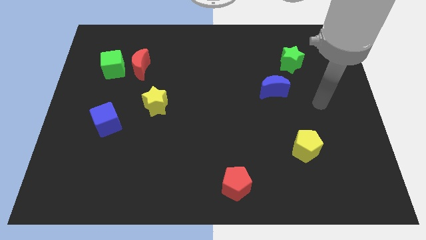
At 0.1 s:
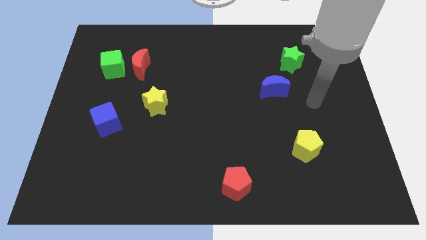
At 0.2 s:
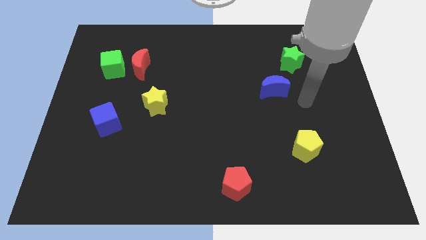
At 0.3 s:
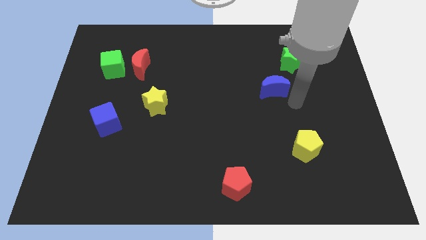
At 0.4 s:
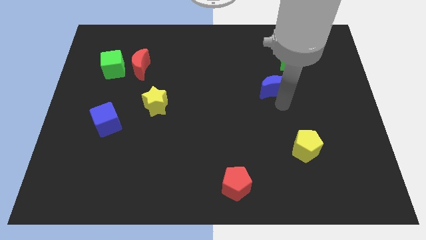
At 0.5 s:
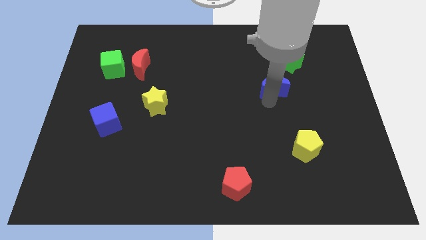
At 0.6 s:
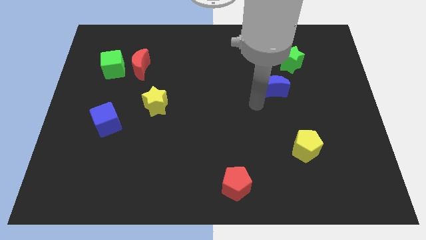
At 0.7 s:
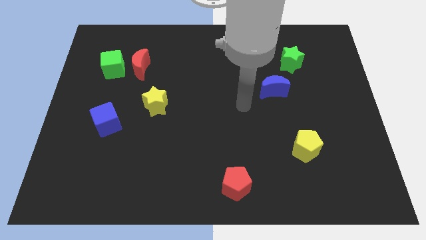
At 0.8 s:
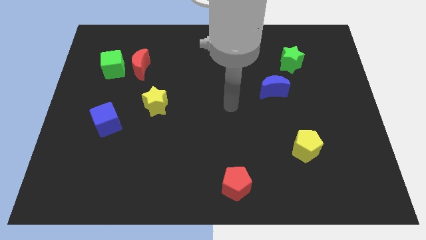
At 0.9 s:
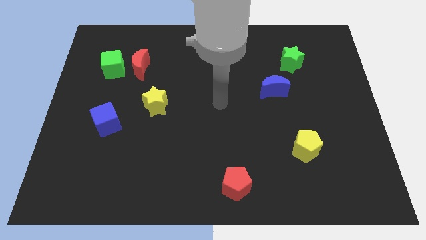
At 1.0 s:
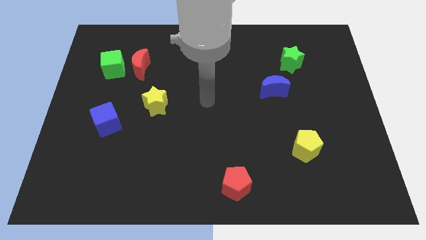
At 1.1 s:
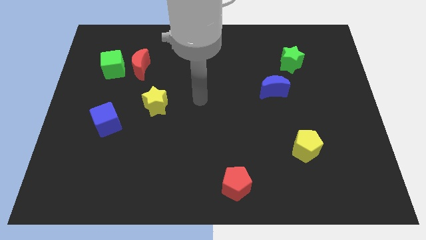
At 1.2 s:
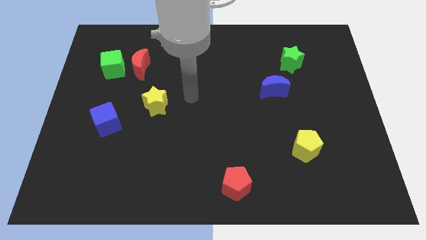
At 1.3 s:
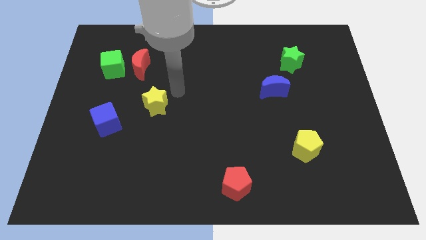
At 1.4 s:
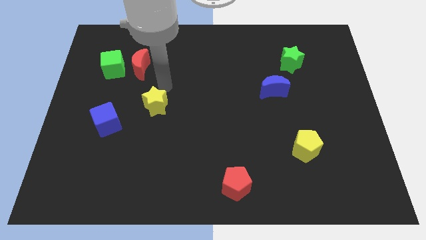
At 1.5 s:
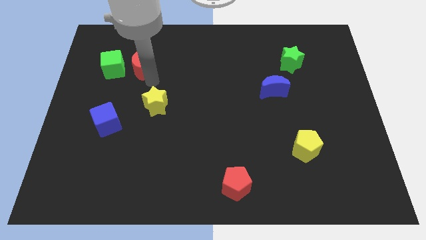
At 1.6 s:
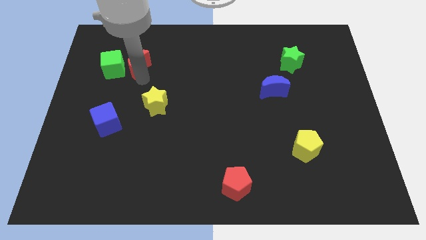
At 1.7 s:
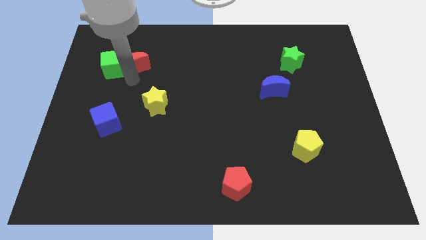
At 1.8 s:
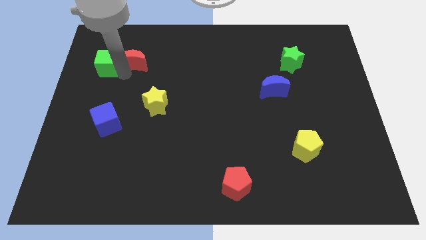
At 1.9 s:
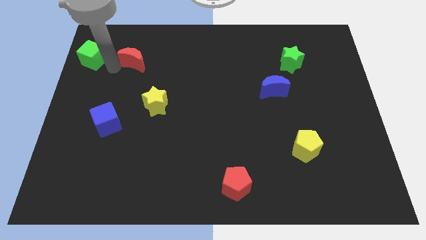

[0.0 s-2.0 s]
move the red moon away from the green cube

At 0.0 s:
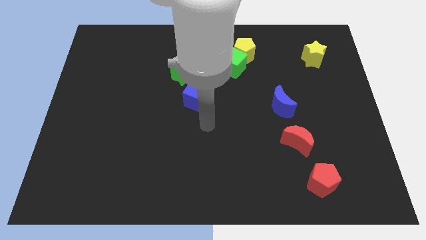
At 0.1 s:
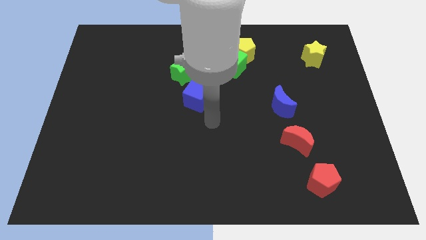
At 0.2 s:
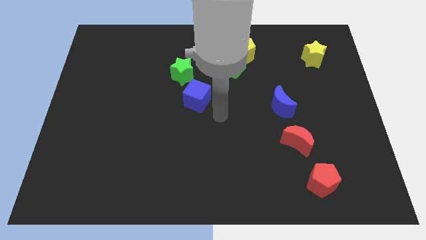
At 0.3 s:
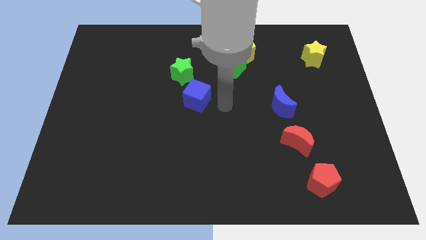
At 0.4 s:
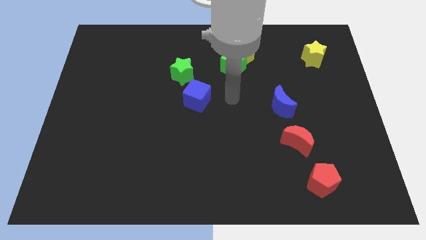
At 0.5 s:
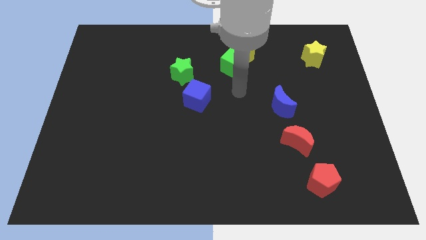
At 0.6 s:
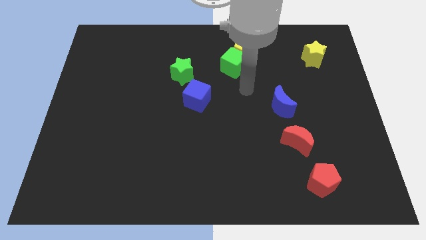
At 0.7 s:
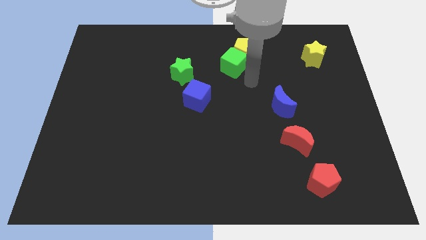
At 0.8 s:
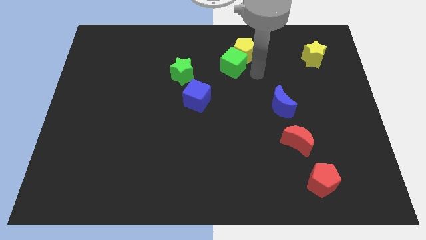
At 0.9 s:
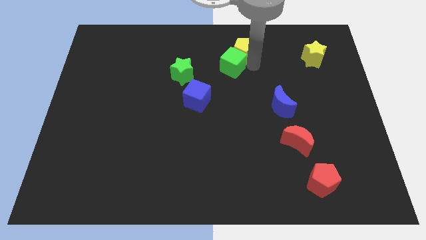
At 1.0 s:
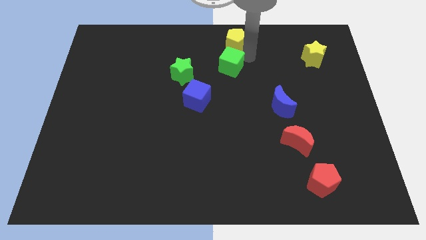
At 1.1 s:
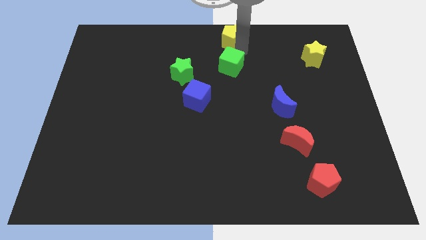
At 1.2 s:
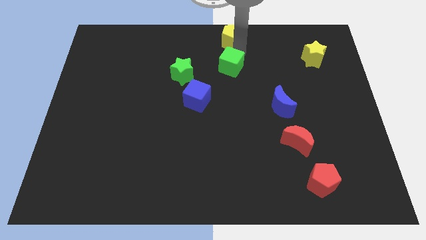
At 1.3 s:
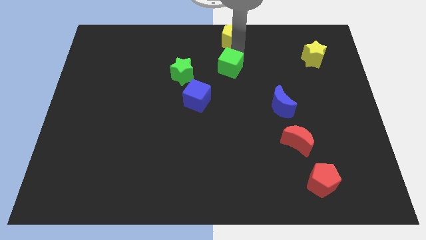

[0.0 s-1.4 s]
pull the green cube apart from the yellow pentagon

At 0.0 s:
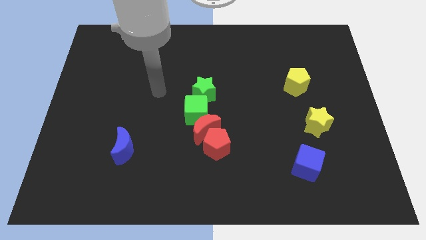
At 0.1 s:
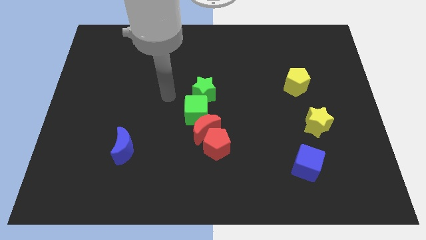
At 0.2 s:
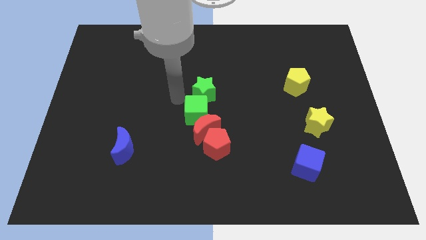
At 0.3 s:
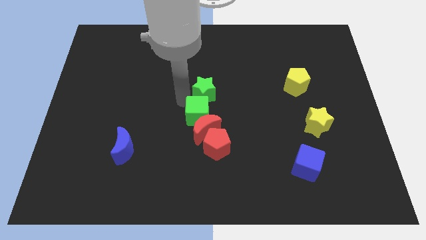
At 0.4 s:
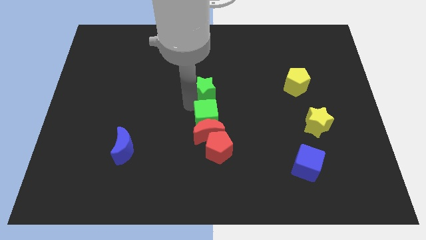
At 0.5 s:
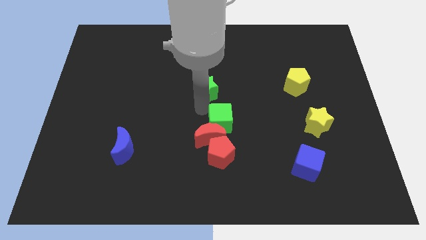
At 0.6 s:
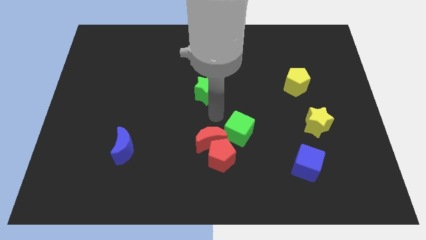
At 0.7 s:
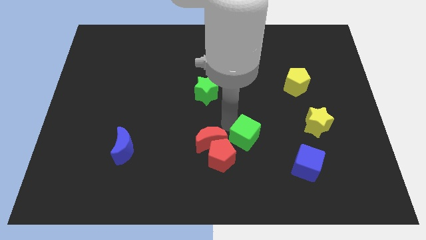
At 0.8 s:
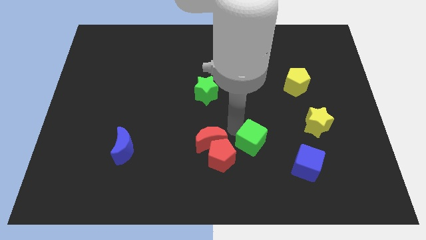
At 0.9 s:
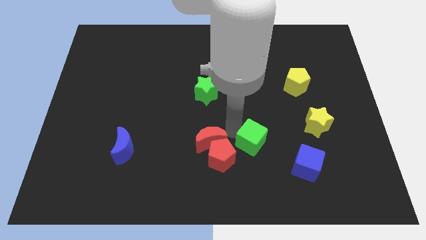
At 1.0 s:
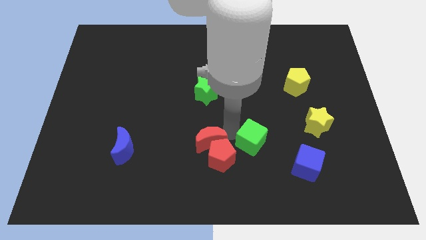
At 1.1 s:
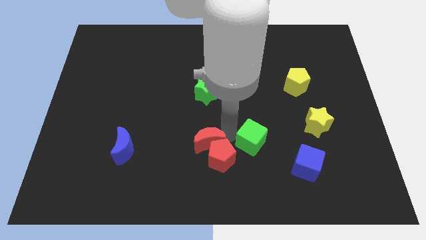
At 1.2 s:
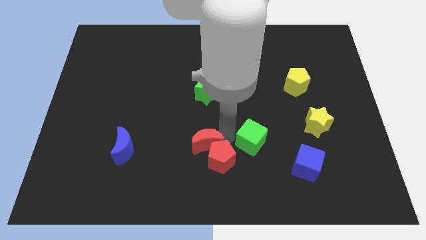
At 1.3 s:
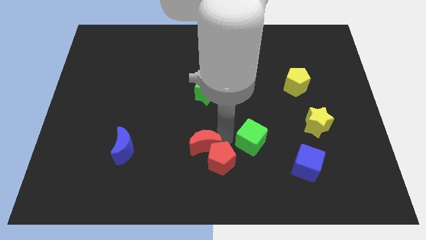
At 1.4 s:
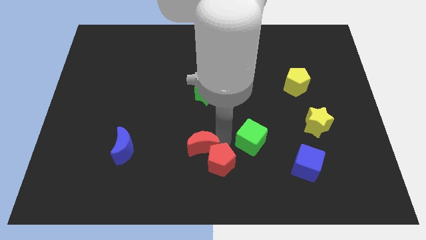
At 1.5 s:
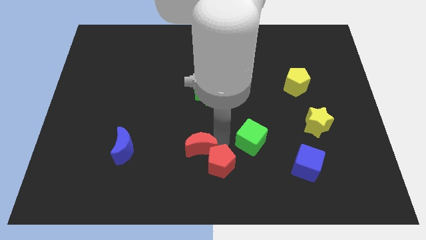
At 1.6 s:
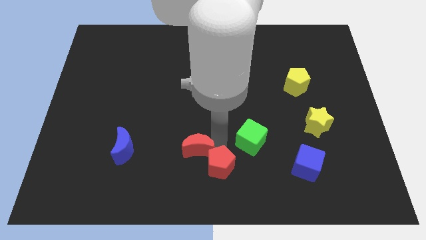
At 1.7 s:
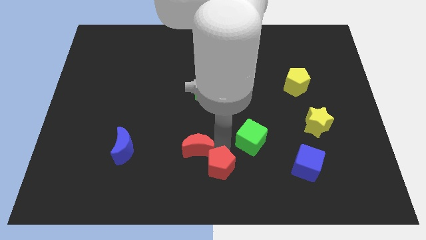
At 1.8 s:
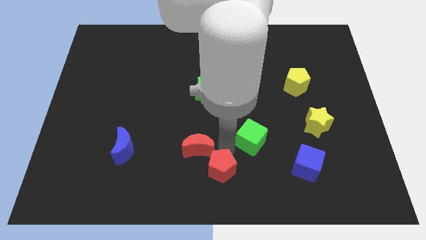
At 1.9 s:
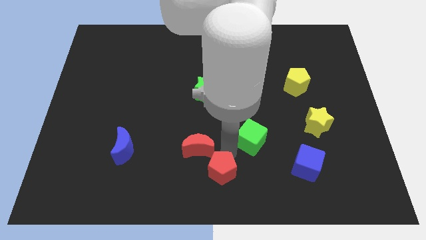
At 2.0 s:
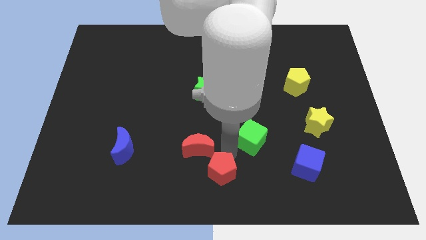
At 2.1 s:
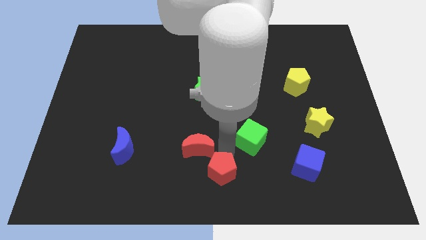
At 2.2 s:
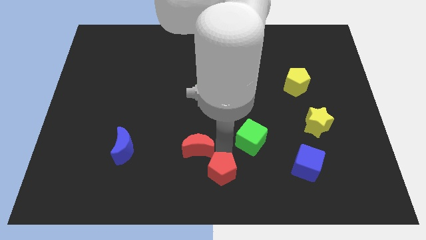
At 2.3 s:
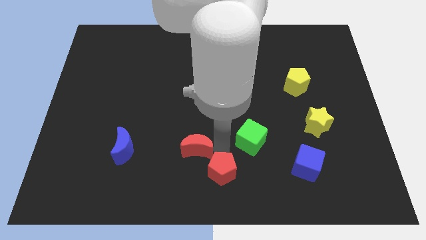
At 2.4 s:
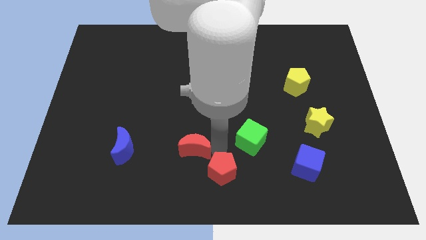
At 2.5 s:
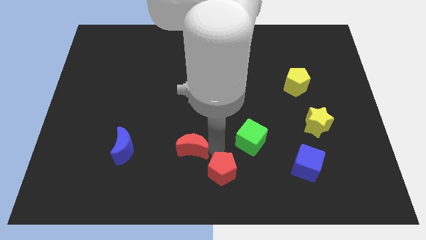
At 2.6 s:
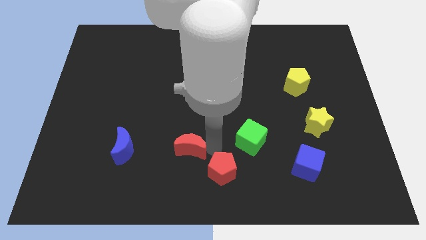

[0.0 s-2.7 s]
move the red moon away from the red pentagon and green cube

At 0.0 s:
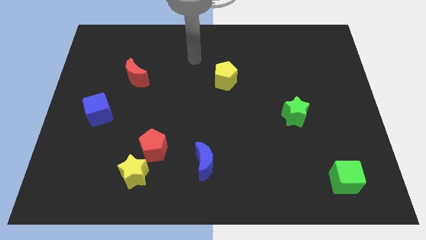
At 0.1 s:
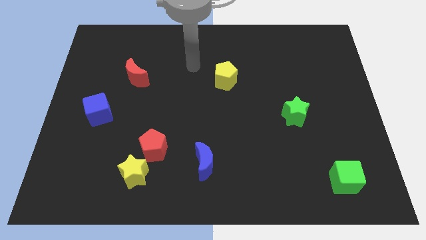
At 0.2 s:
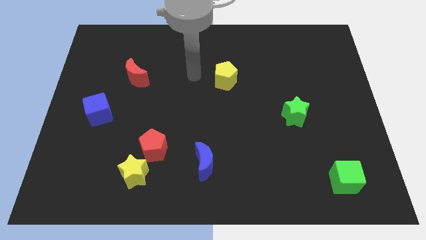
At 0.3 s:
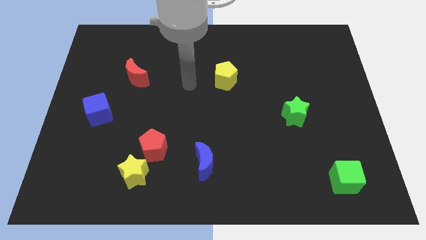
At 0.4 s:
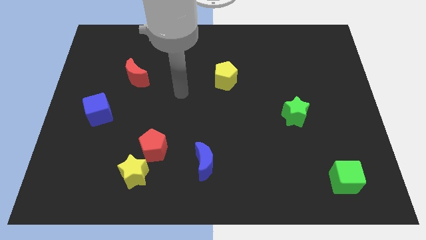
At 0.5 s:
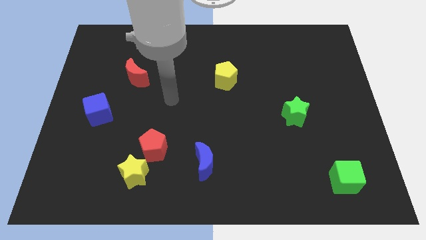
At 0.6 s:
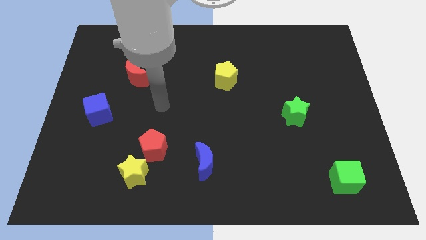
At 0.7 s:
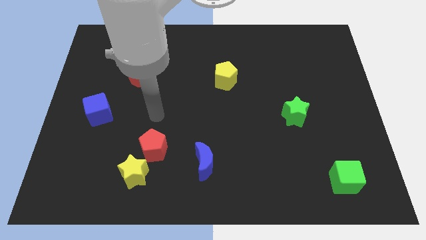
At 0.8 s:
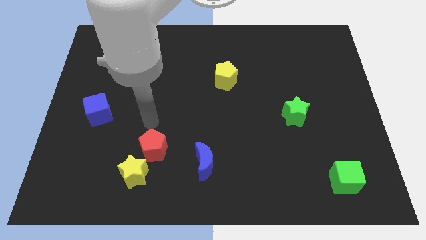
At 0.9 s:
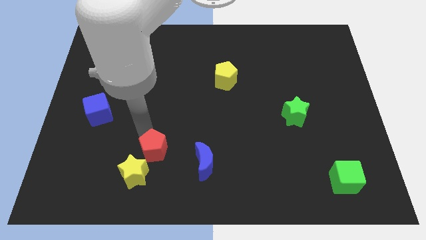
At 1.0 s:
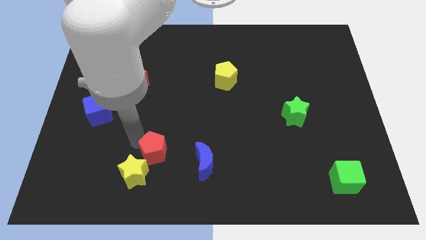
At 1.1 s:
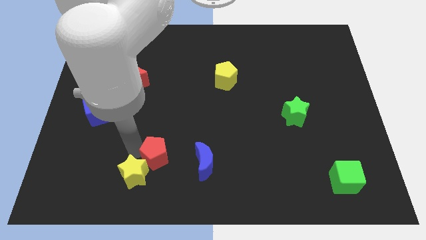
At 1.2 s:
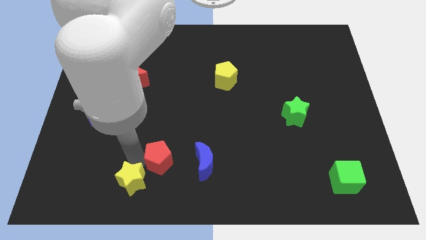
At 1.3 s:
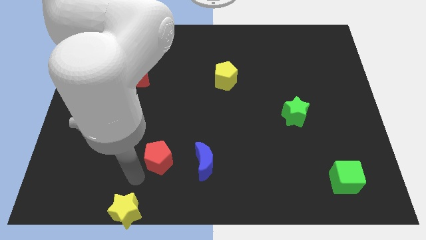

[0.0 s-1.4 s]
separate the red pentagon from the yellow star

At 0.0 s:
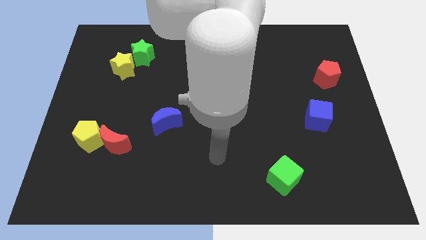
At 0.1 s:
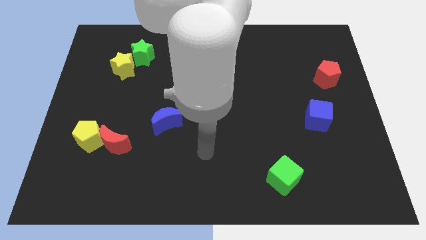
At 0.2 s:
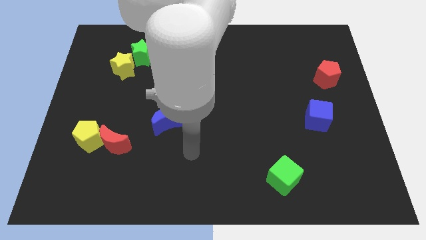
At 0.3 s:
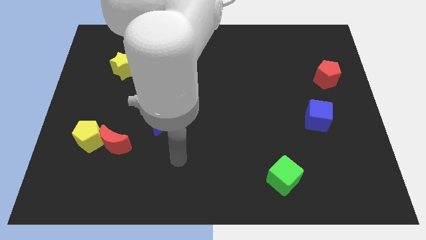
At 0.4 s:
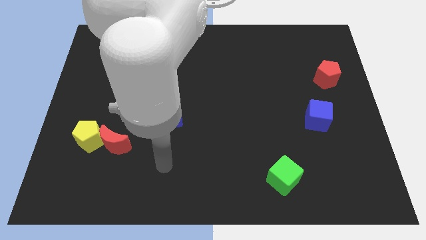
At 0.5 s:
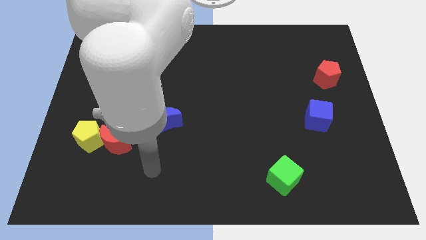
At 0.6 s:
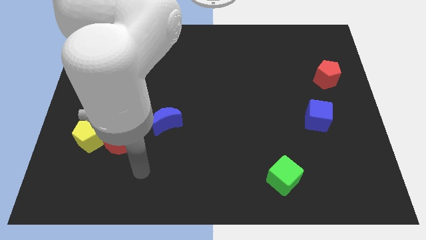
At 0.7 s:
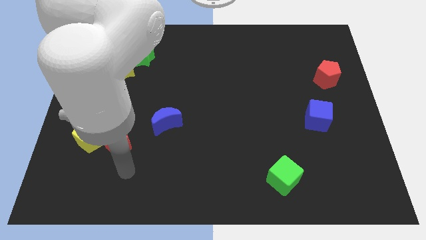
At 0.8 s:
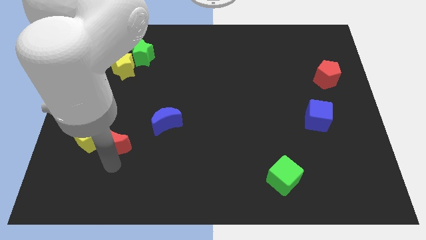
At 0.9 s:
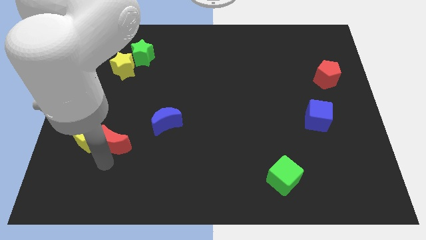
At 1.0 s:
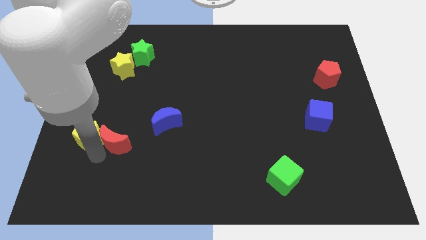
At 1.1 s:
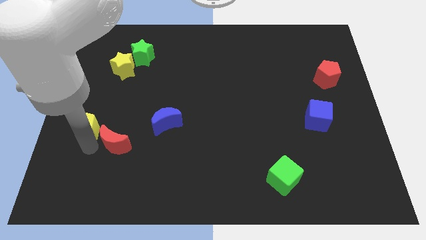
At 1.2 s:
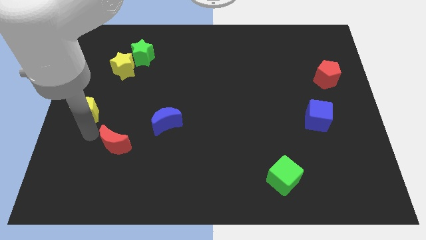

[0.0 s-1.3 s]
move the red moon away from the yellow pentagon

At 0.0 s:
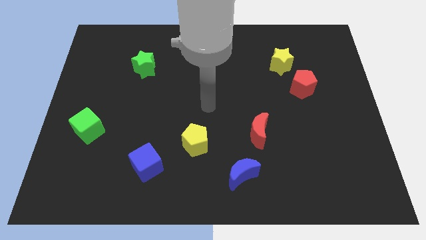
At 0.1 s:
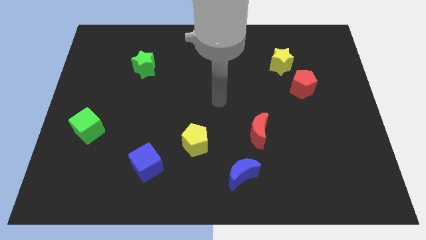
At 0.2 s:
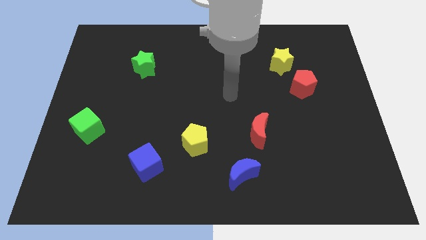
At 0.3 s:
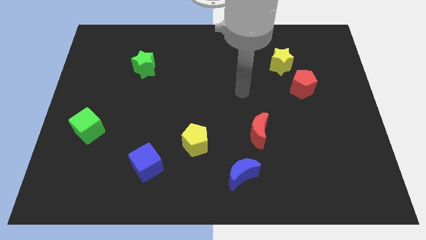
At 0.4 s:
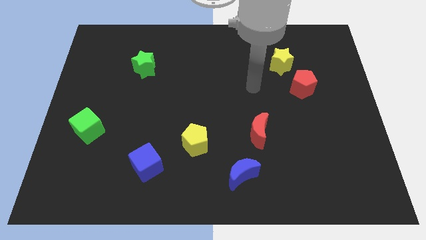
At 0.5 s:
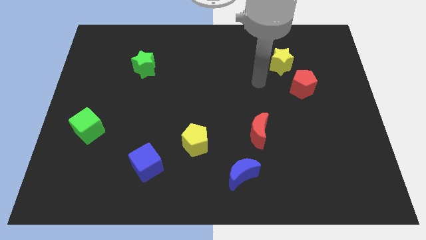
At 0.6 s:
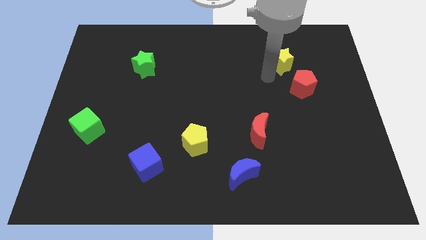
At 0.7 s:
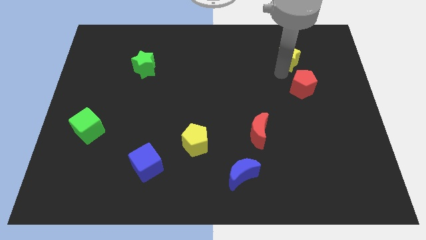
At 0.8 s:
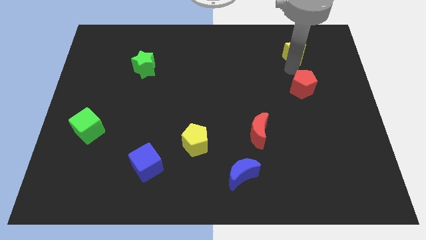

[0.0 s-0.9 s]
move the red pentagon away from the yellow star
